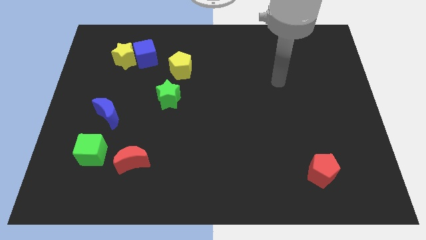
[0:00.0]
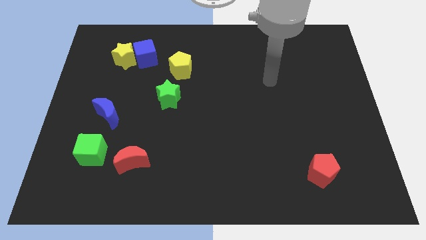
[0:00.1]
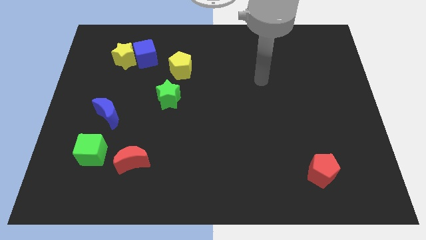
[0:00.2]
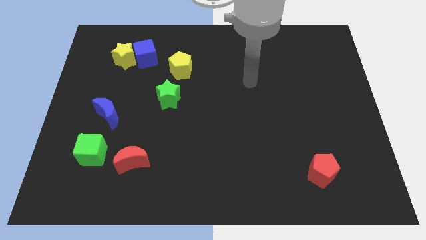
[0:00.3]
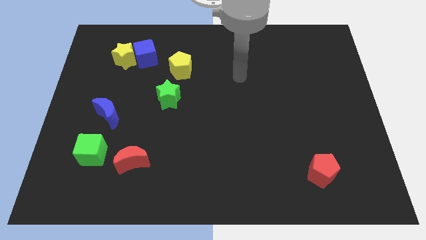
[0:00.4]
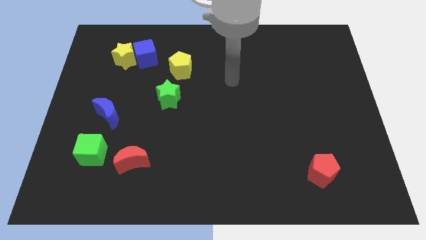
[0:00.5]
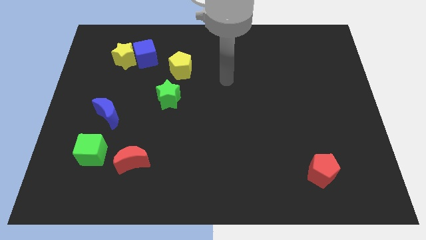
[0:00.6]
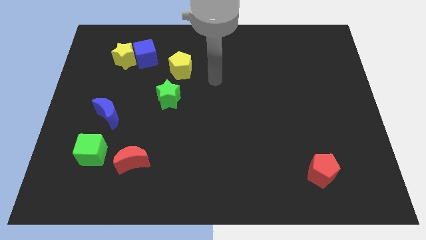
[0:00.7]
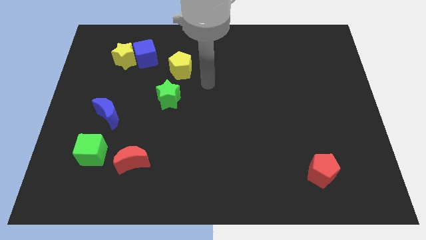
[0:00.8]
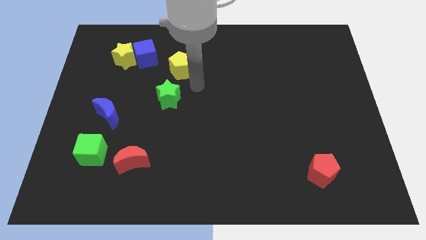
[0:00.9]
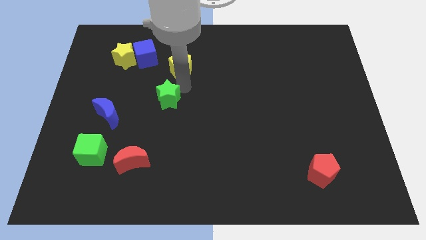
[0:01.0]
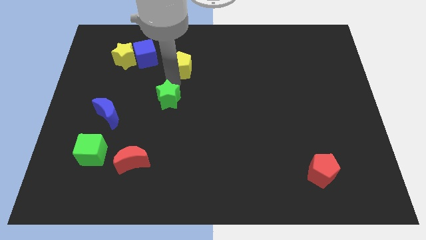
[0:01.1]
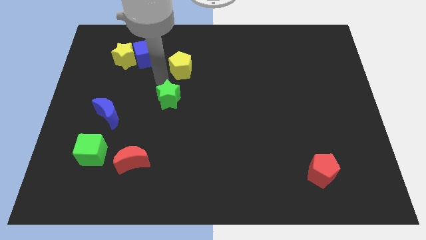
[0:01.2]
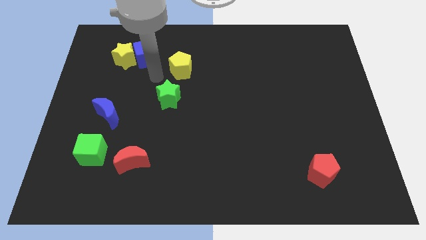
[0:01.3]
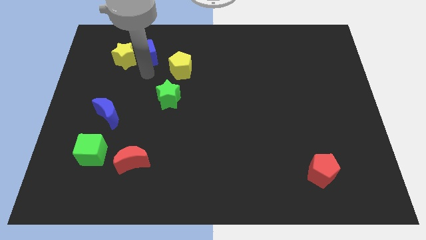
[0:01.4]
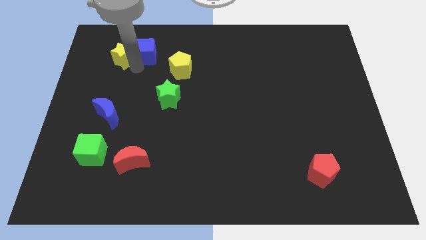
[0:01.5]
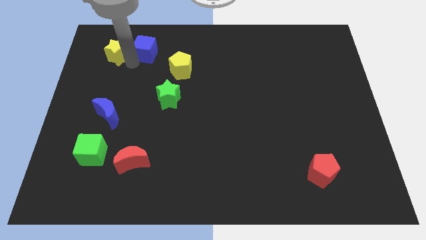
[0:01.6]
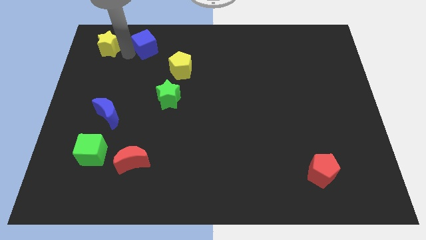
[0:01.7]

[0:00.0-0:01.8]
separate the blue cube from the yellow star

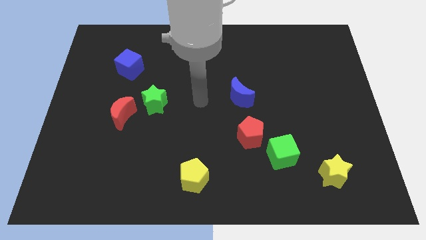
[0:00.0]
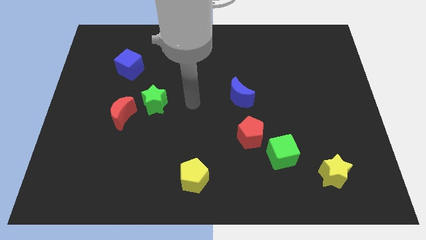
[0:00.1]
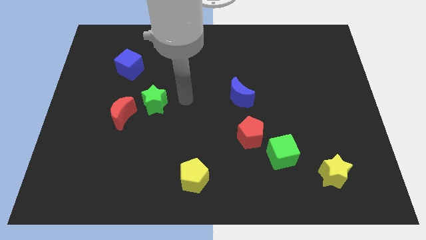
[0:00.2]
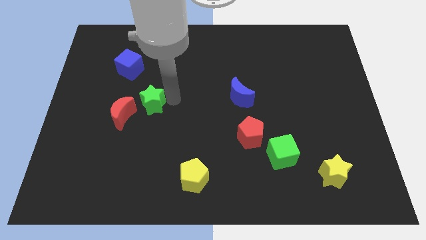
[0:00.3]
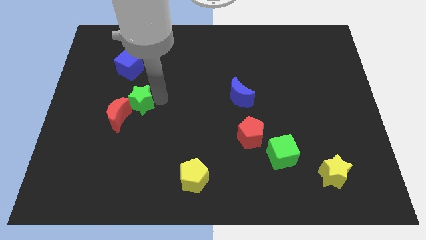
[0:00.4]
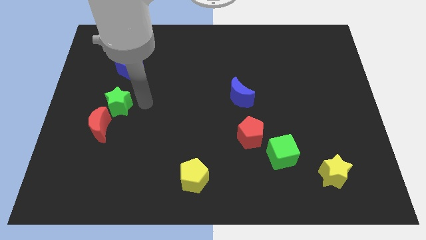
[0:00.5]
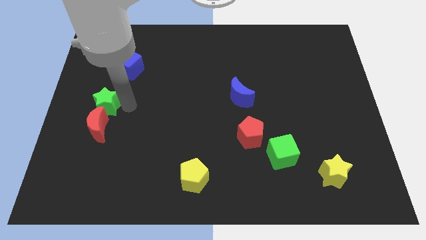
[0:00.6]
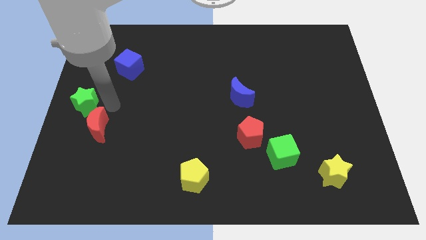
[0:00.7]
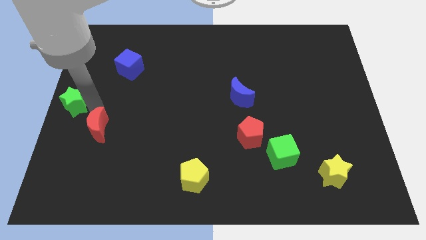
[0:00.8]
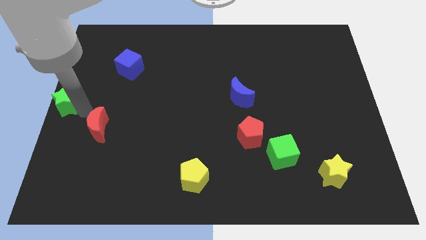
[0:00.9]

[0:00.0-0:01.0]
separate the red moon from the green star

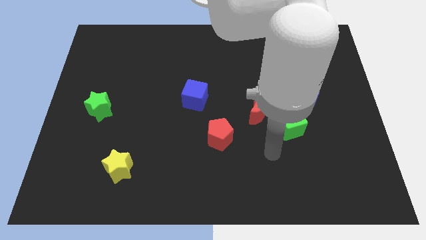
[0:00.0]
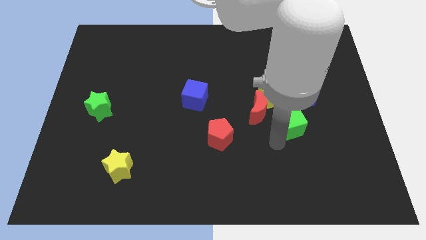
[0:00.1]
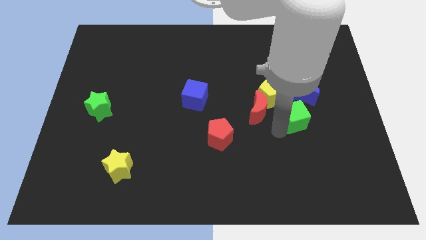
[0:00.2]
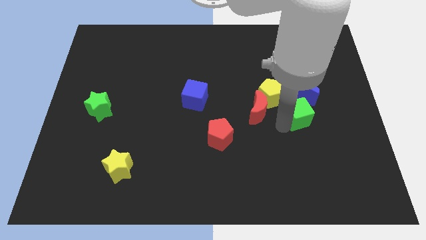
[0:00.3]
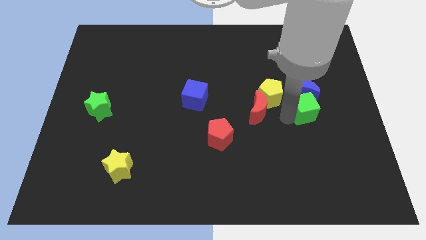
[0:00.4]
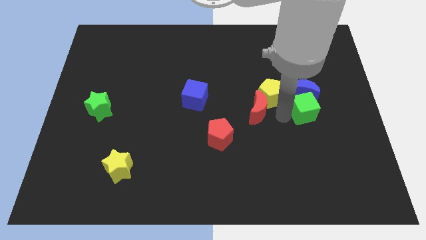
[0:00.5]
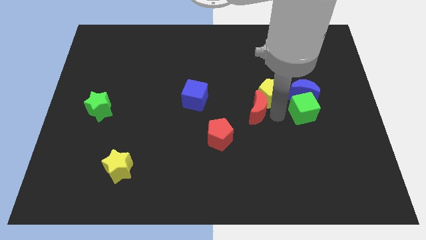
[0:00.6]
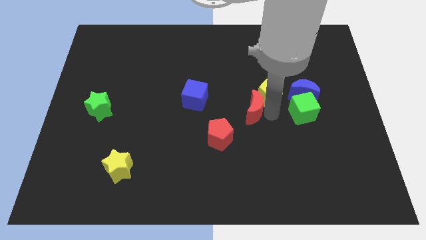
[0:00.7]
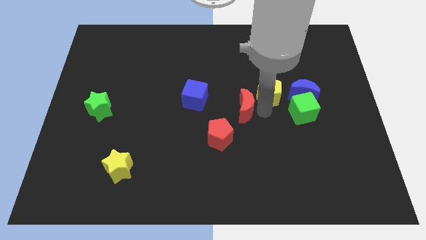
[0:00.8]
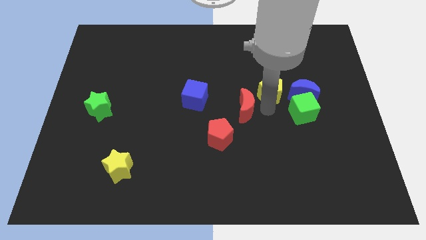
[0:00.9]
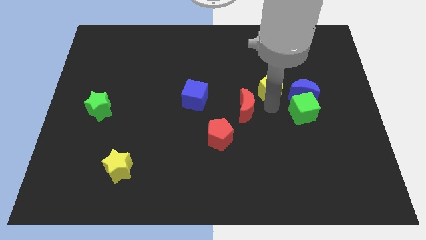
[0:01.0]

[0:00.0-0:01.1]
pull the red moon apart from the yellow pentagon and green cube

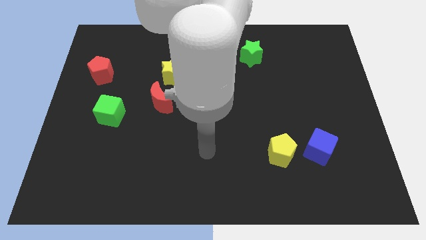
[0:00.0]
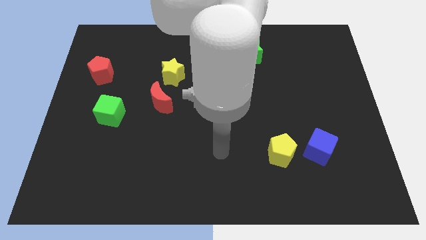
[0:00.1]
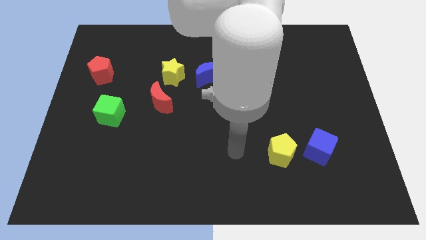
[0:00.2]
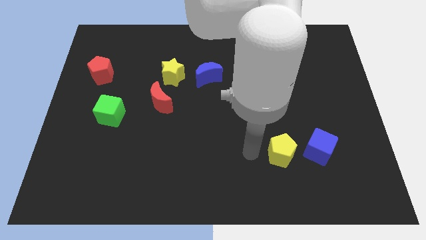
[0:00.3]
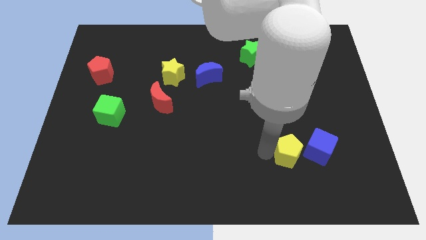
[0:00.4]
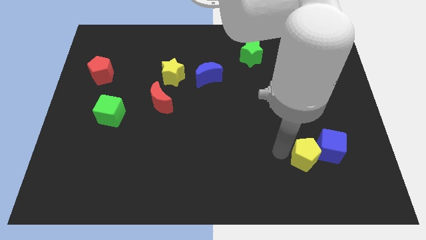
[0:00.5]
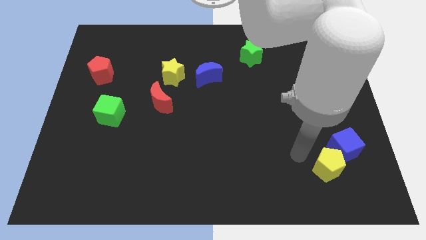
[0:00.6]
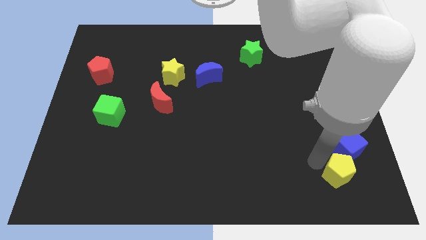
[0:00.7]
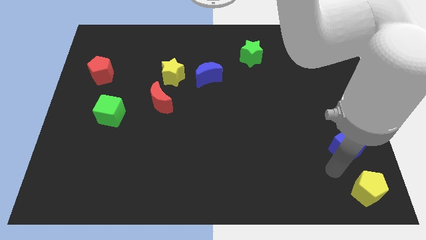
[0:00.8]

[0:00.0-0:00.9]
move the blue cube away from the yellow pentagon

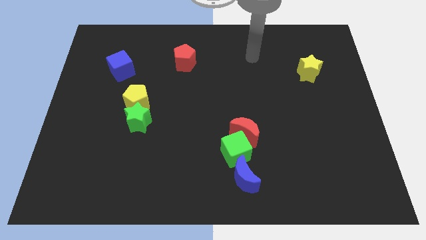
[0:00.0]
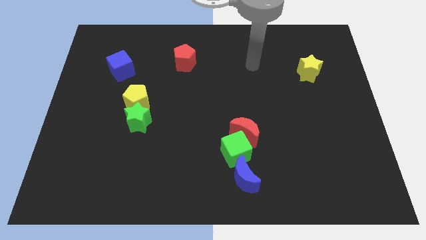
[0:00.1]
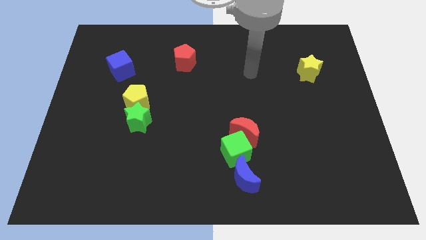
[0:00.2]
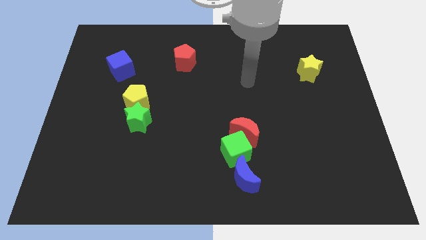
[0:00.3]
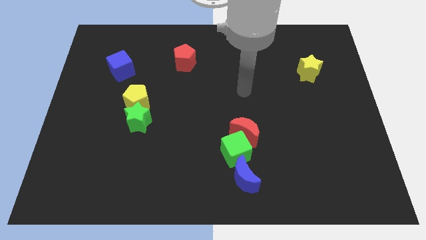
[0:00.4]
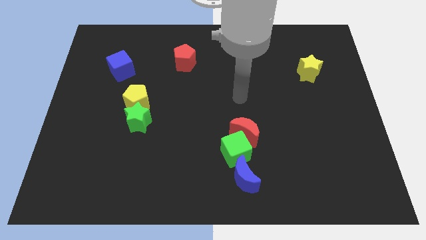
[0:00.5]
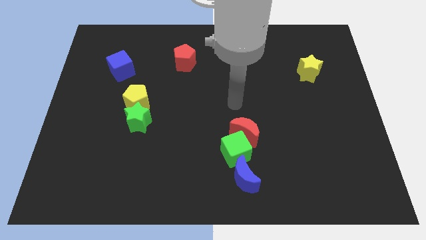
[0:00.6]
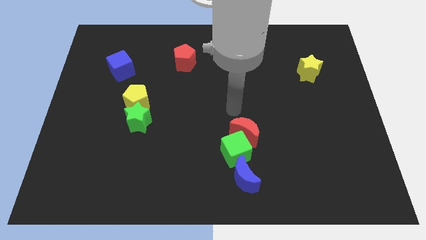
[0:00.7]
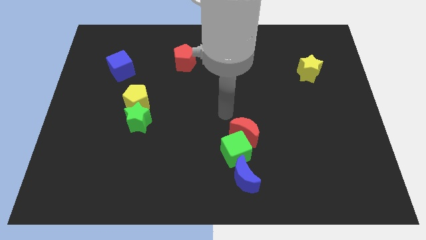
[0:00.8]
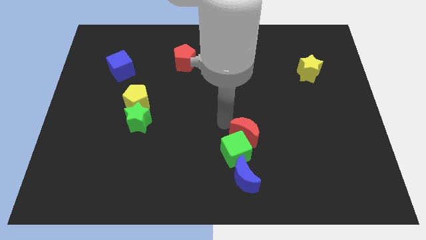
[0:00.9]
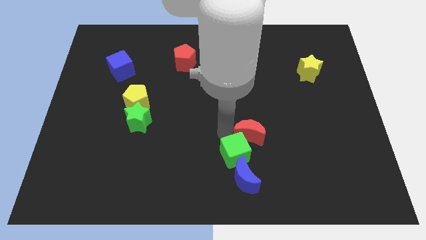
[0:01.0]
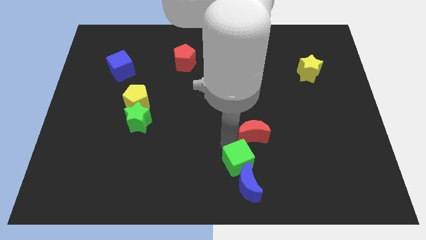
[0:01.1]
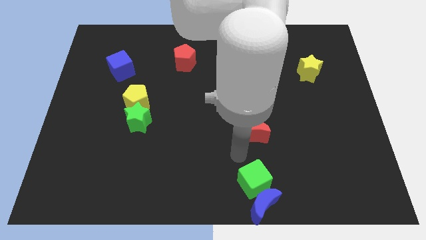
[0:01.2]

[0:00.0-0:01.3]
pull the red moon apart from the green cube

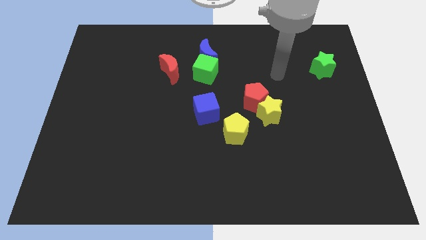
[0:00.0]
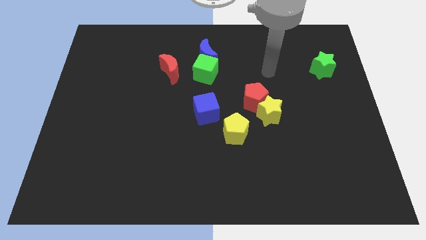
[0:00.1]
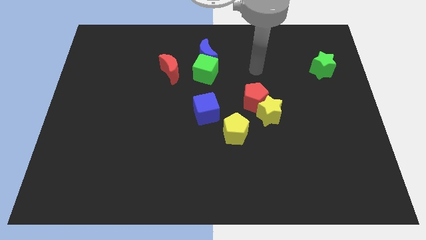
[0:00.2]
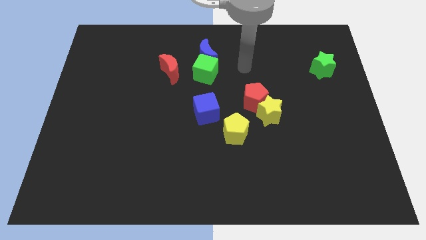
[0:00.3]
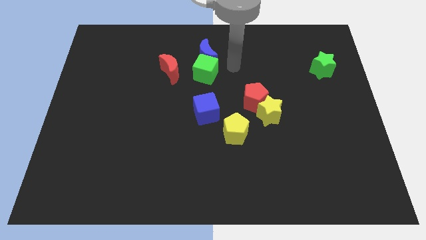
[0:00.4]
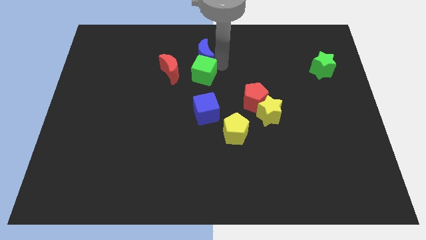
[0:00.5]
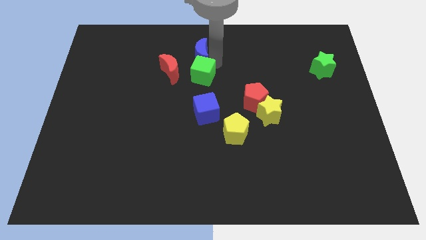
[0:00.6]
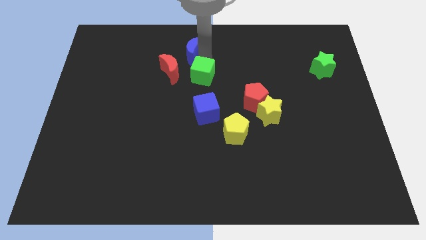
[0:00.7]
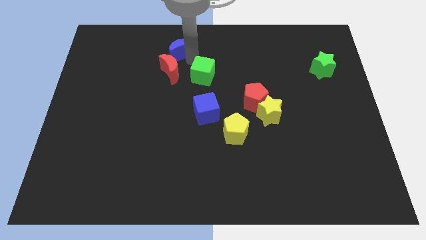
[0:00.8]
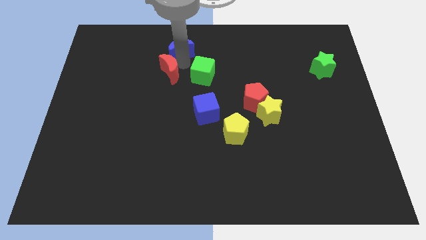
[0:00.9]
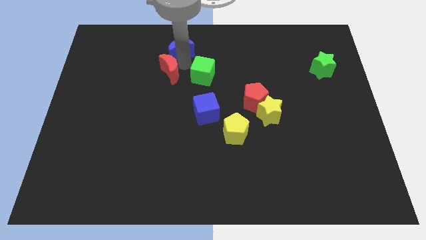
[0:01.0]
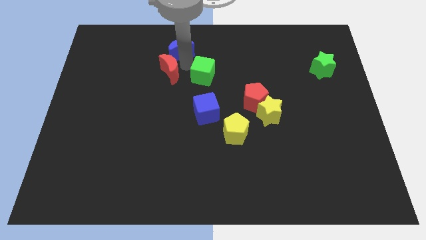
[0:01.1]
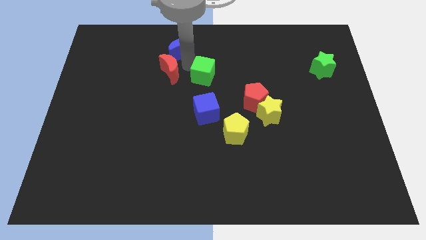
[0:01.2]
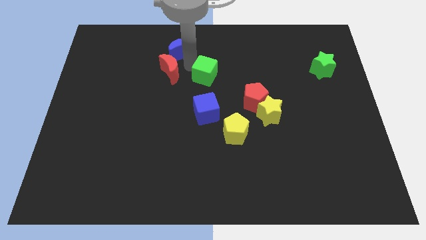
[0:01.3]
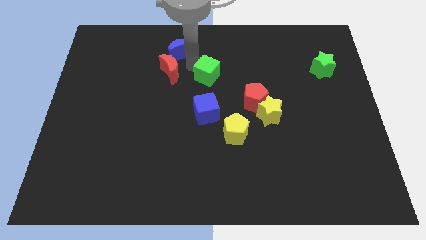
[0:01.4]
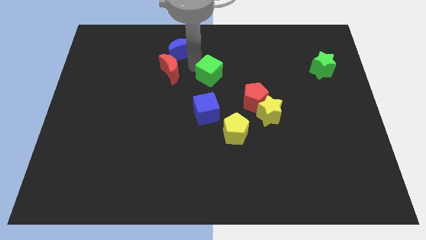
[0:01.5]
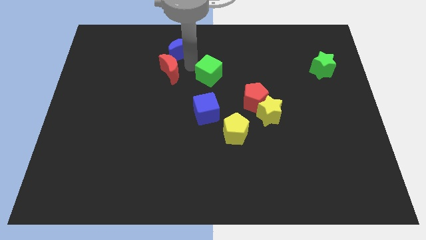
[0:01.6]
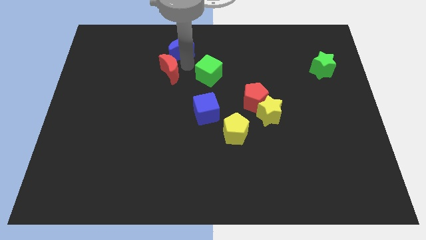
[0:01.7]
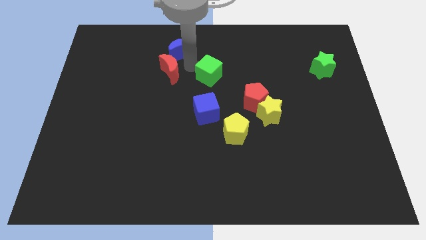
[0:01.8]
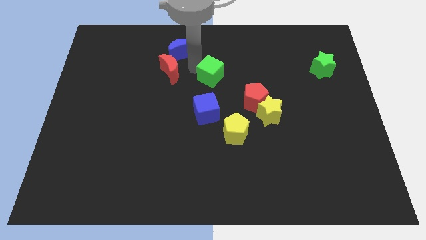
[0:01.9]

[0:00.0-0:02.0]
pull the green cube apart from the blue moon and red moon

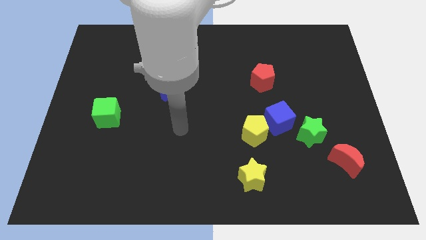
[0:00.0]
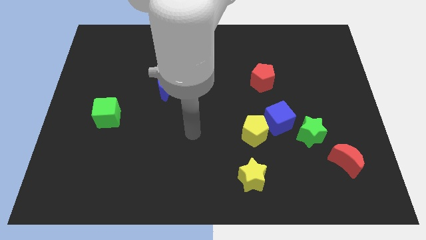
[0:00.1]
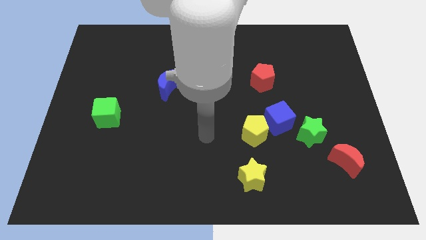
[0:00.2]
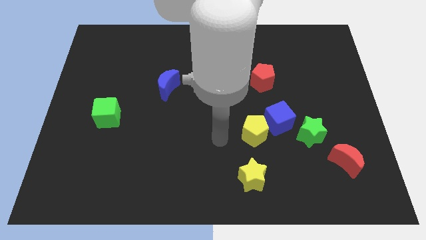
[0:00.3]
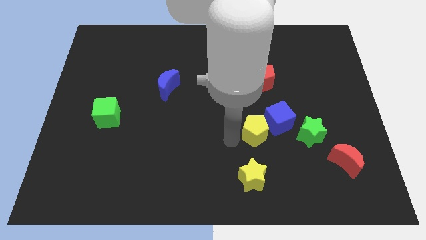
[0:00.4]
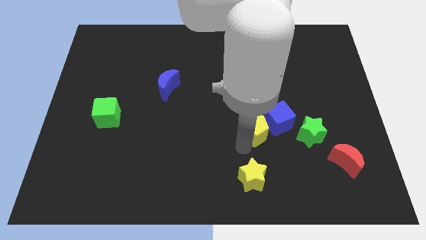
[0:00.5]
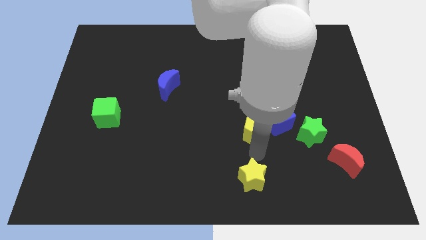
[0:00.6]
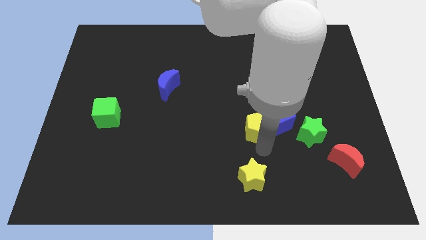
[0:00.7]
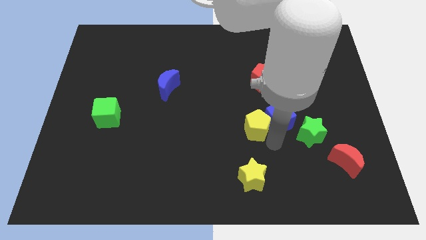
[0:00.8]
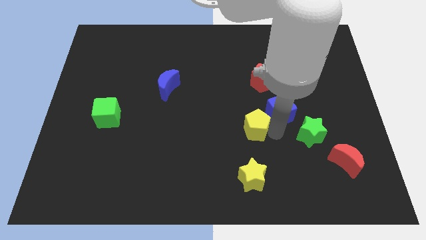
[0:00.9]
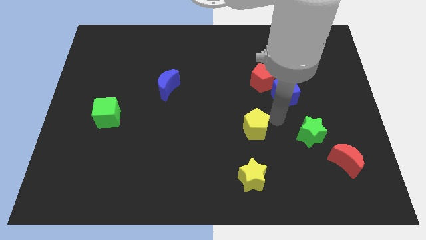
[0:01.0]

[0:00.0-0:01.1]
pull the yellow pentagon apart from the blue cube
